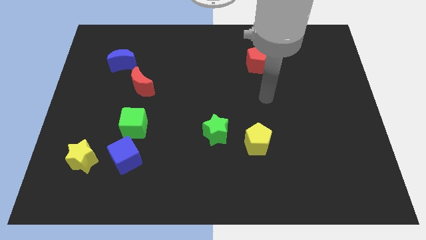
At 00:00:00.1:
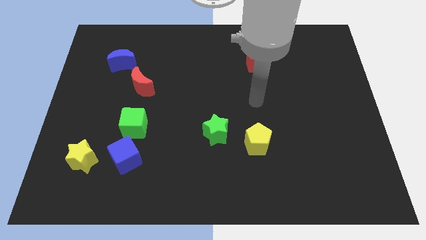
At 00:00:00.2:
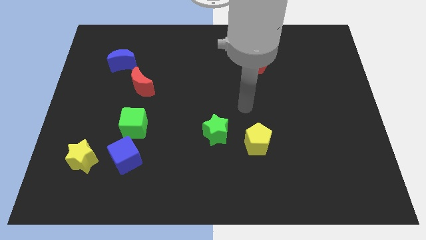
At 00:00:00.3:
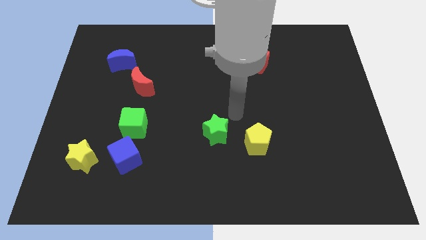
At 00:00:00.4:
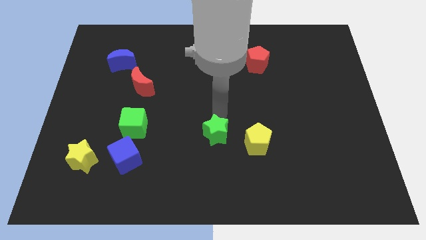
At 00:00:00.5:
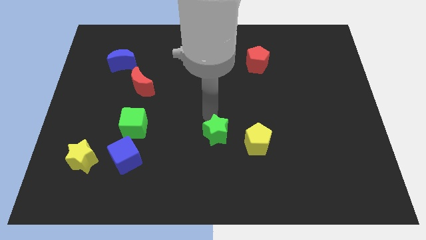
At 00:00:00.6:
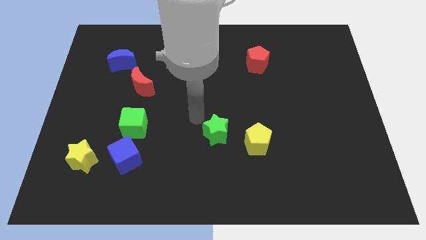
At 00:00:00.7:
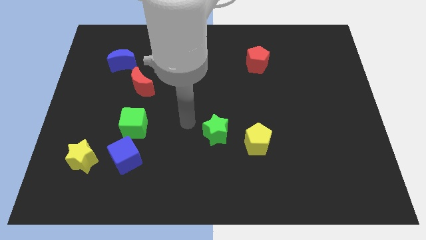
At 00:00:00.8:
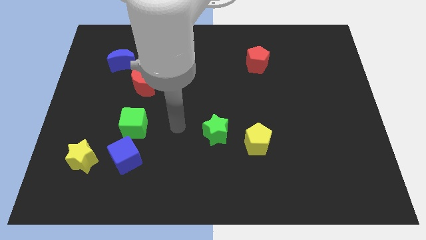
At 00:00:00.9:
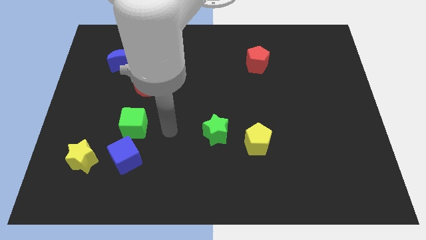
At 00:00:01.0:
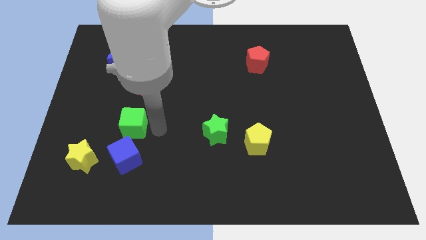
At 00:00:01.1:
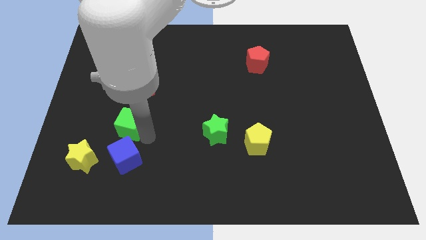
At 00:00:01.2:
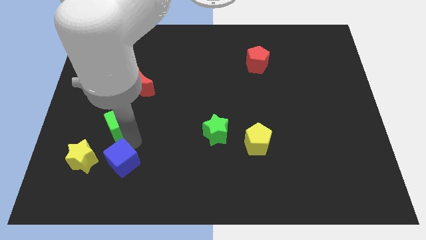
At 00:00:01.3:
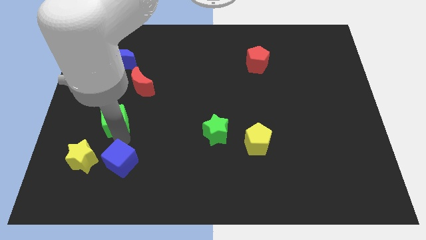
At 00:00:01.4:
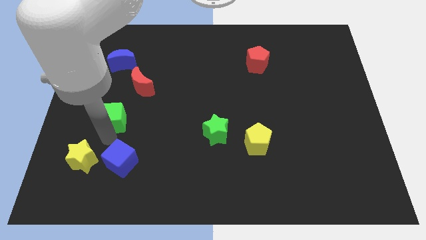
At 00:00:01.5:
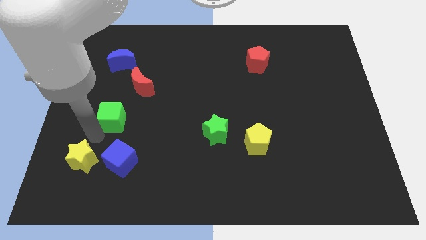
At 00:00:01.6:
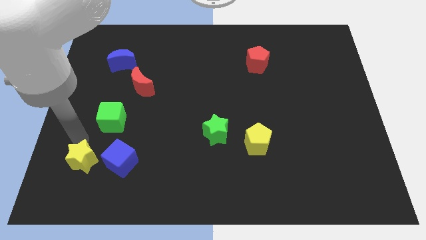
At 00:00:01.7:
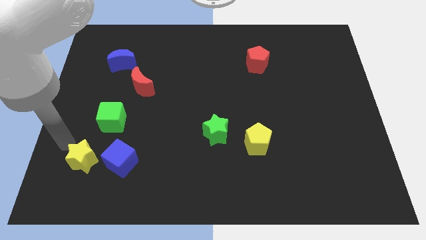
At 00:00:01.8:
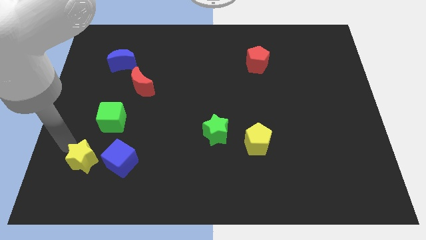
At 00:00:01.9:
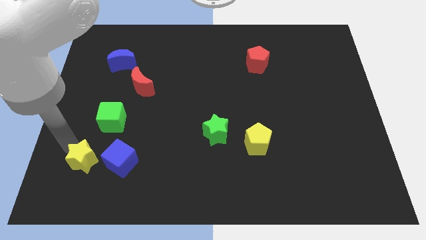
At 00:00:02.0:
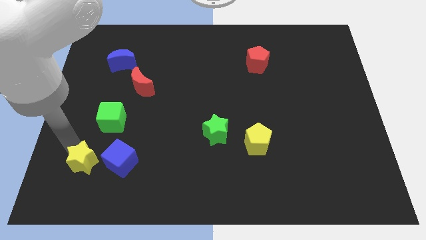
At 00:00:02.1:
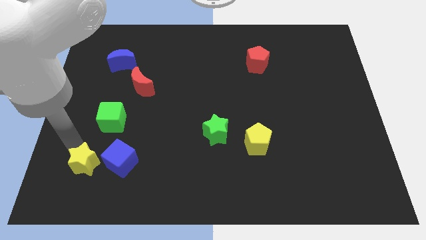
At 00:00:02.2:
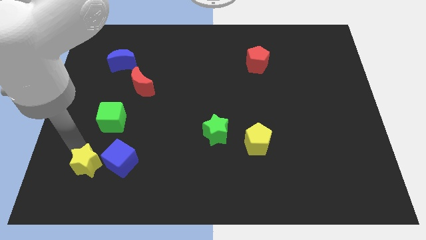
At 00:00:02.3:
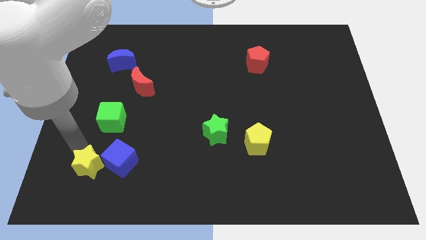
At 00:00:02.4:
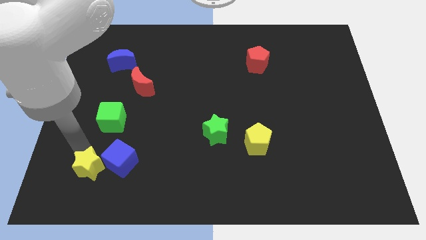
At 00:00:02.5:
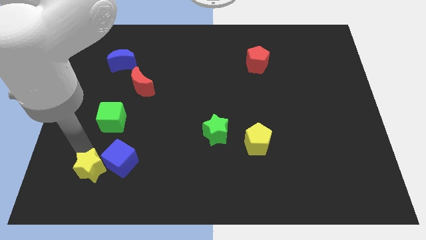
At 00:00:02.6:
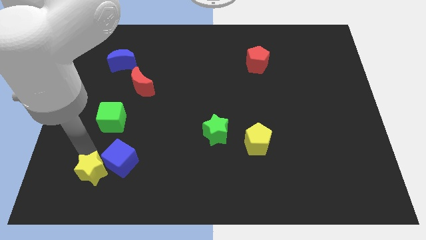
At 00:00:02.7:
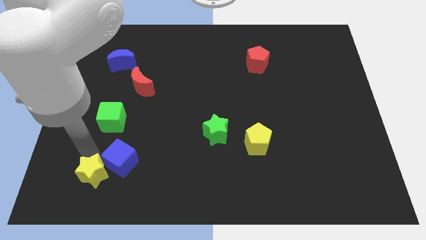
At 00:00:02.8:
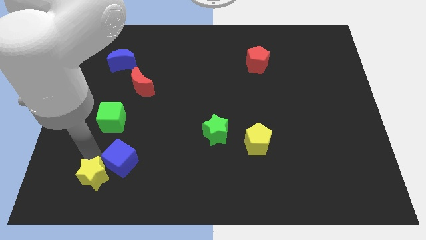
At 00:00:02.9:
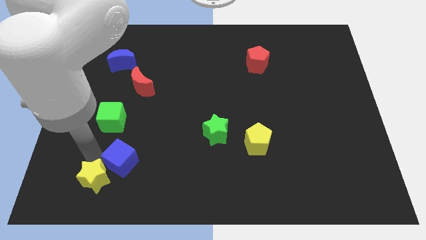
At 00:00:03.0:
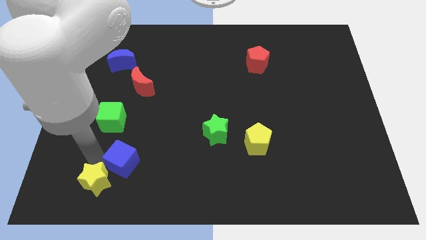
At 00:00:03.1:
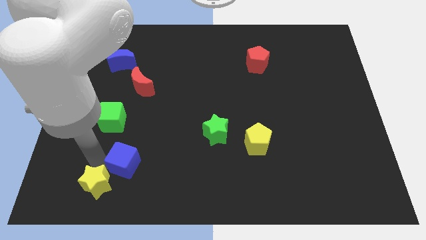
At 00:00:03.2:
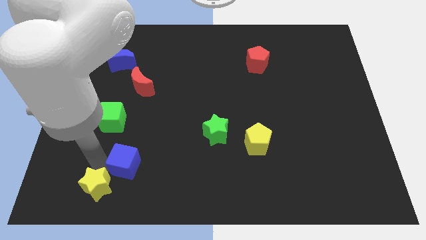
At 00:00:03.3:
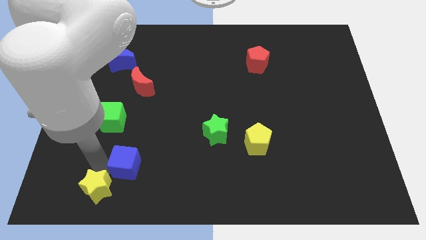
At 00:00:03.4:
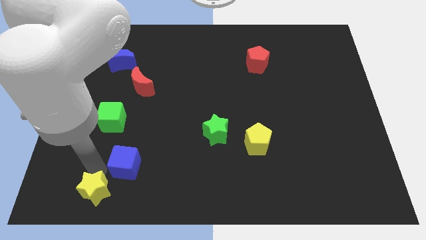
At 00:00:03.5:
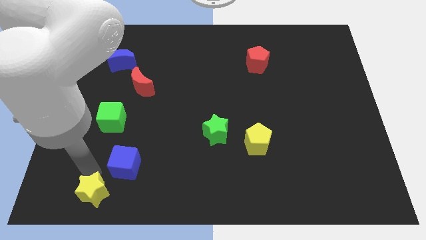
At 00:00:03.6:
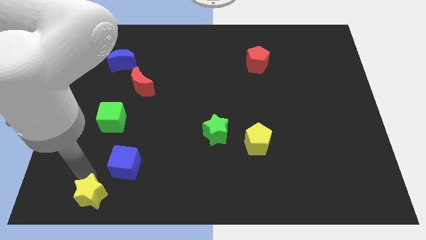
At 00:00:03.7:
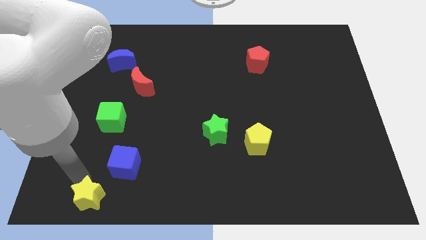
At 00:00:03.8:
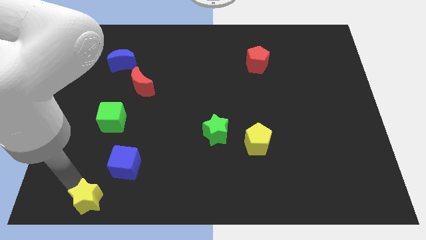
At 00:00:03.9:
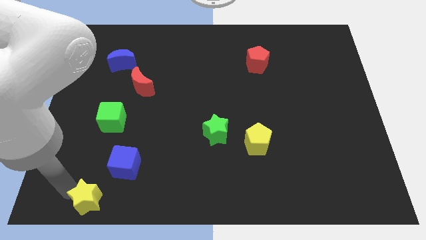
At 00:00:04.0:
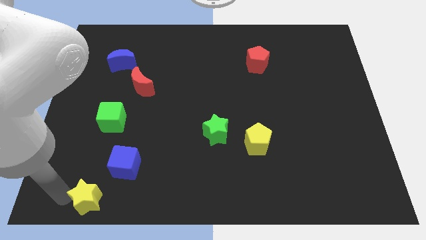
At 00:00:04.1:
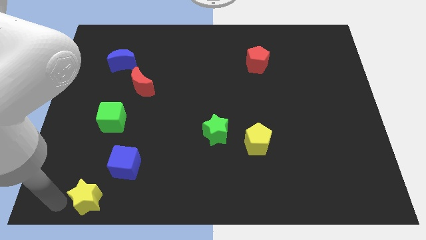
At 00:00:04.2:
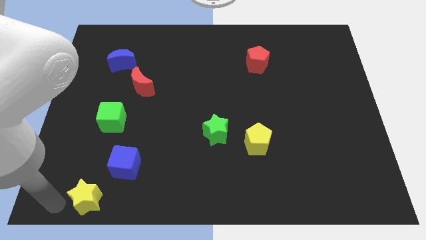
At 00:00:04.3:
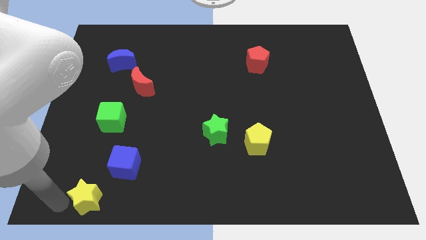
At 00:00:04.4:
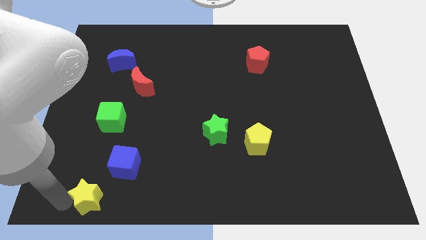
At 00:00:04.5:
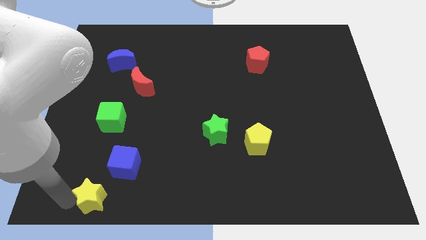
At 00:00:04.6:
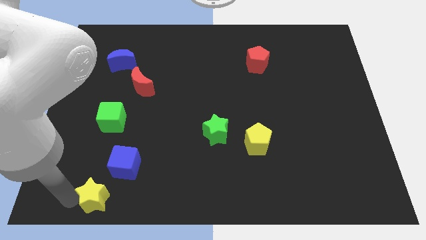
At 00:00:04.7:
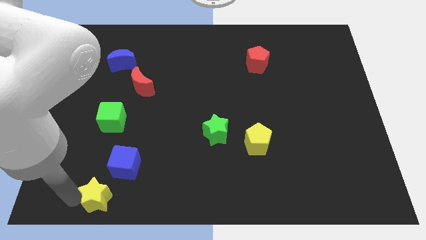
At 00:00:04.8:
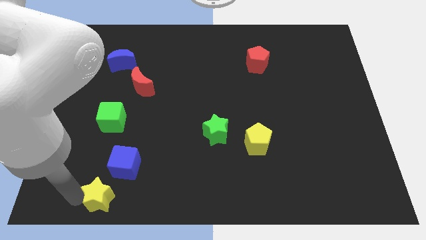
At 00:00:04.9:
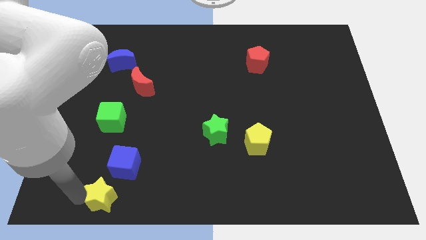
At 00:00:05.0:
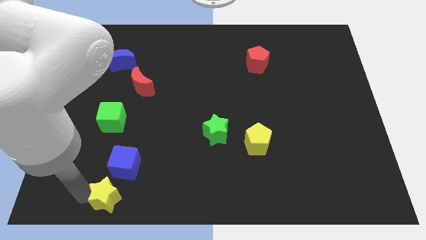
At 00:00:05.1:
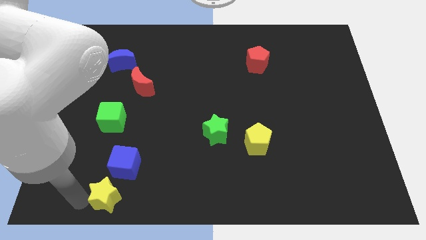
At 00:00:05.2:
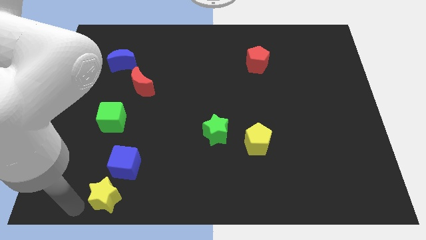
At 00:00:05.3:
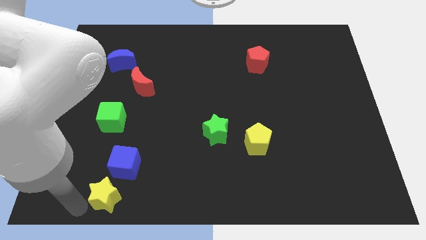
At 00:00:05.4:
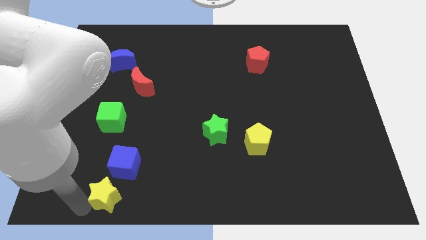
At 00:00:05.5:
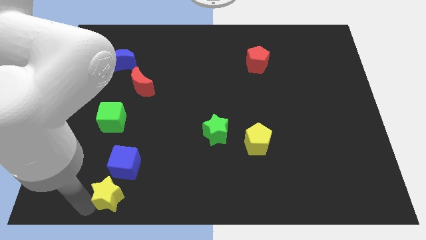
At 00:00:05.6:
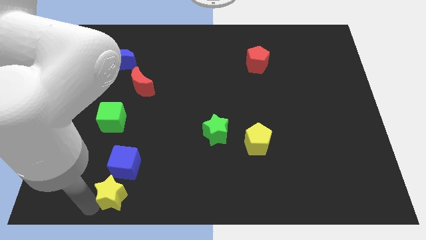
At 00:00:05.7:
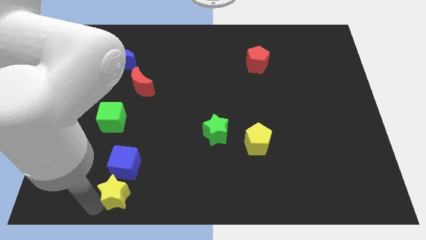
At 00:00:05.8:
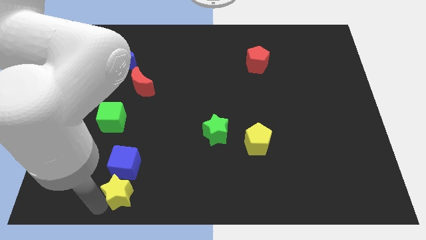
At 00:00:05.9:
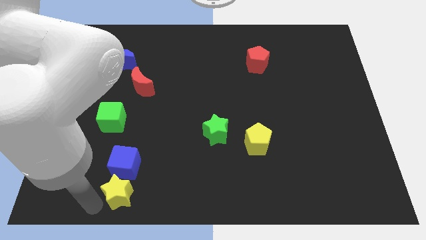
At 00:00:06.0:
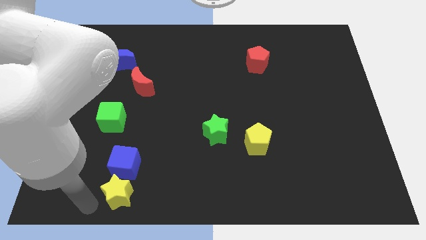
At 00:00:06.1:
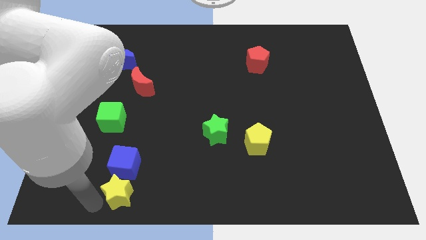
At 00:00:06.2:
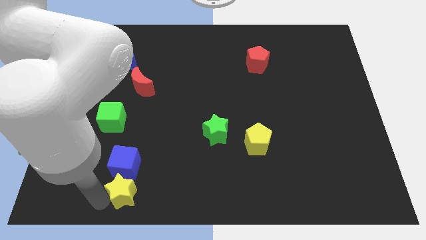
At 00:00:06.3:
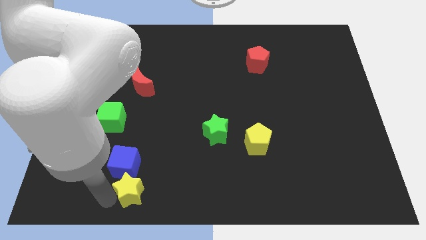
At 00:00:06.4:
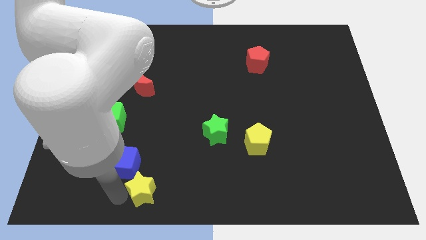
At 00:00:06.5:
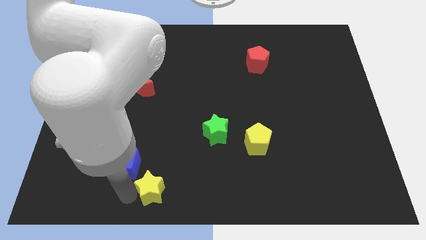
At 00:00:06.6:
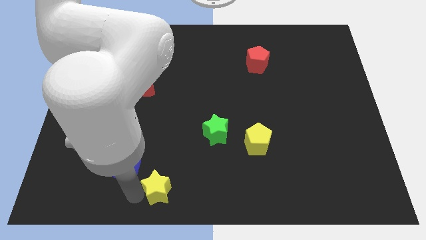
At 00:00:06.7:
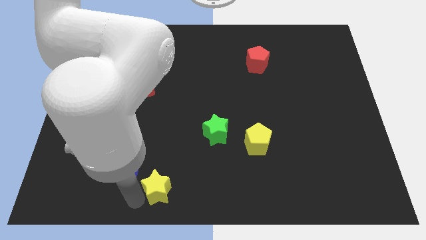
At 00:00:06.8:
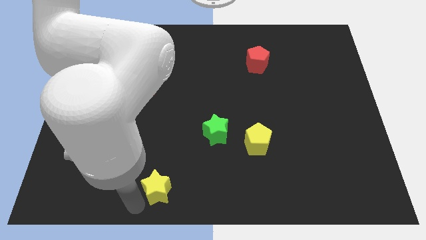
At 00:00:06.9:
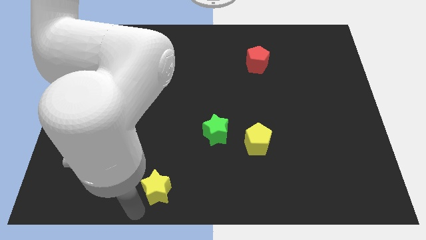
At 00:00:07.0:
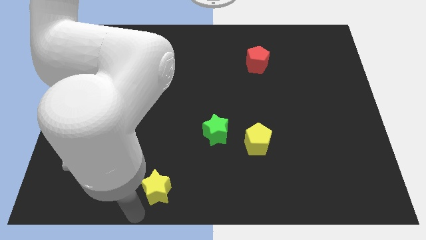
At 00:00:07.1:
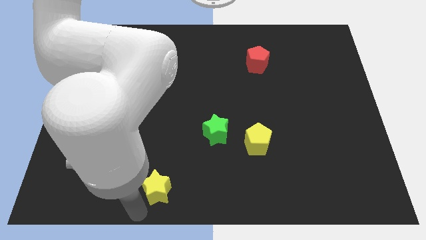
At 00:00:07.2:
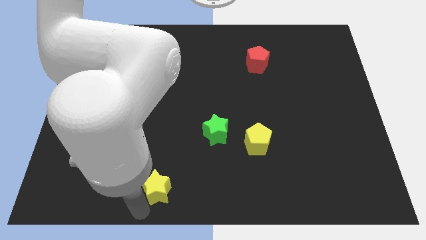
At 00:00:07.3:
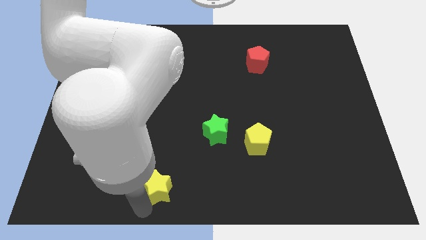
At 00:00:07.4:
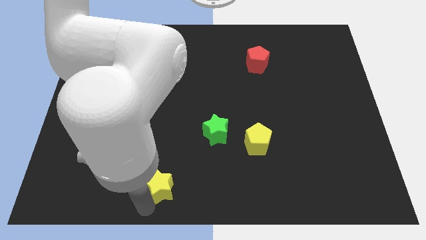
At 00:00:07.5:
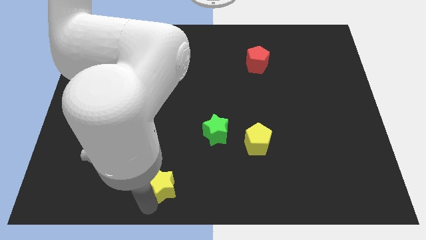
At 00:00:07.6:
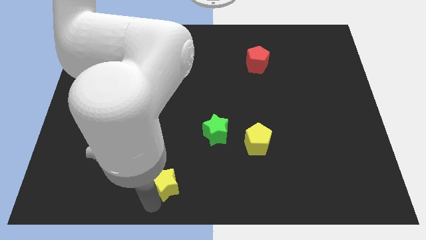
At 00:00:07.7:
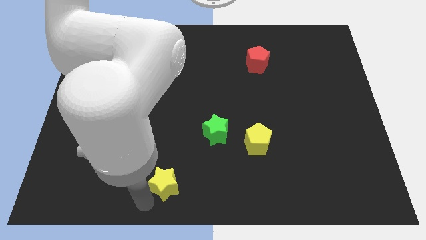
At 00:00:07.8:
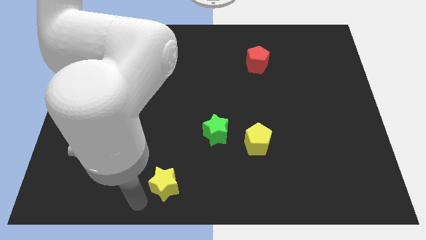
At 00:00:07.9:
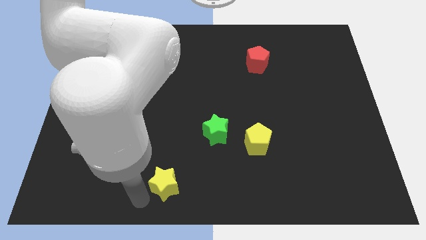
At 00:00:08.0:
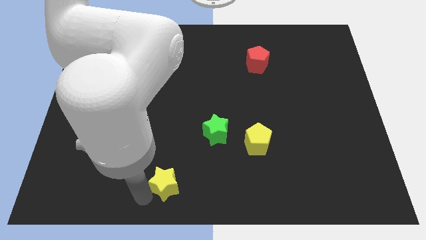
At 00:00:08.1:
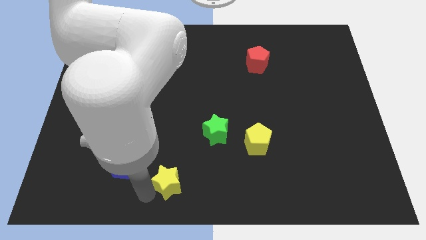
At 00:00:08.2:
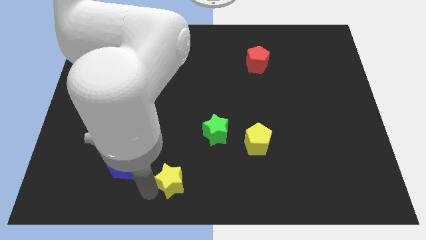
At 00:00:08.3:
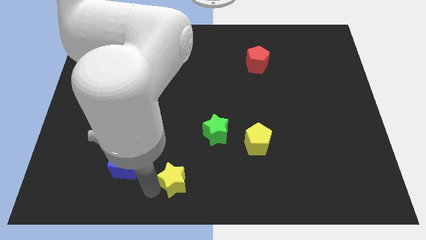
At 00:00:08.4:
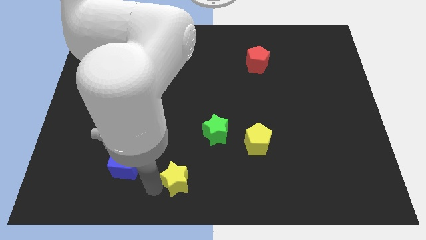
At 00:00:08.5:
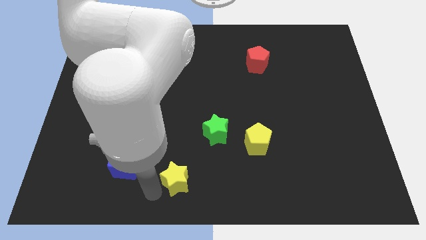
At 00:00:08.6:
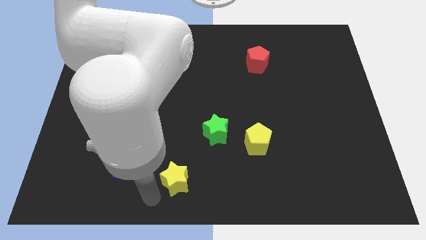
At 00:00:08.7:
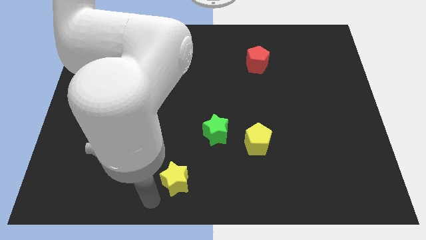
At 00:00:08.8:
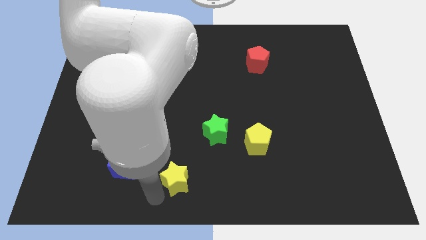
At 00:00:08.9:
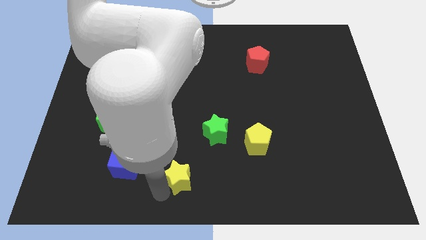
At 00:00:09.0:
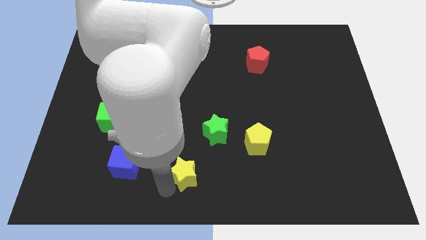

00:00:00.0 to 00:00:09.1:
push the yellow star to the right
